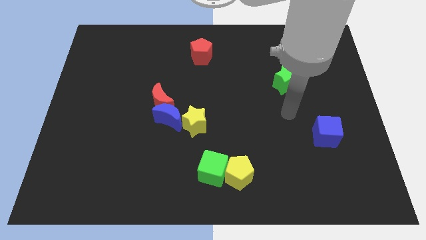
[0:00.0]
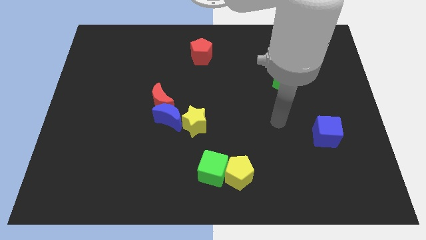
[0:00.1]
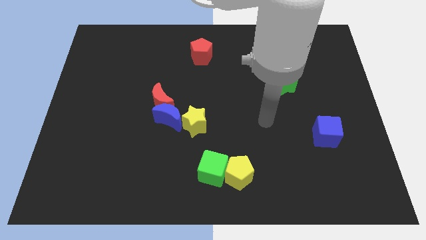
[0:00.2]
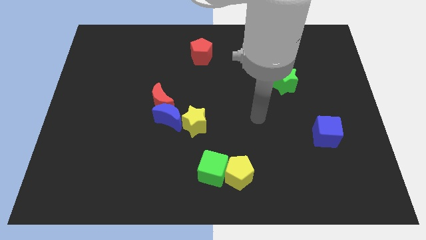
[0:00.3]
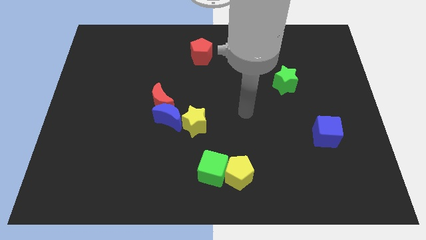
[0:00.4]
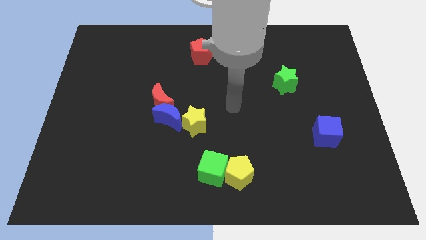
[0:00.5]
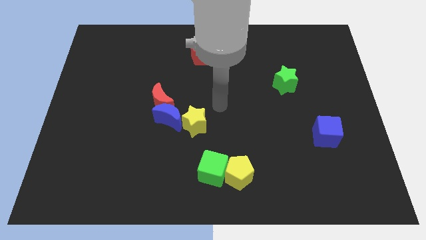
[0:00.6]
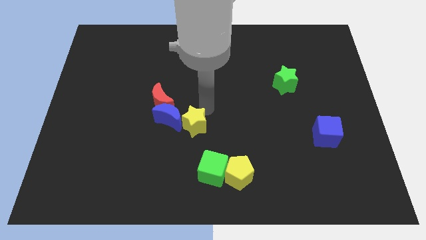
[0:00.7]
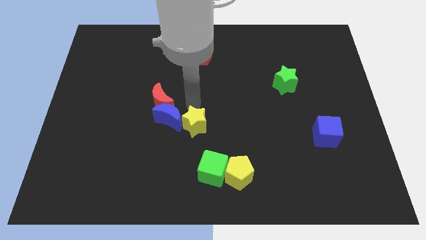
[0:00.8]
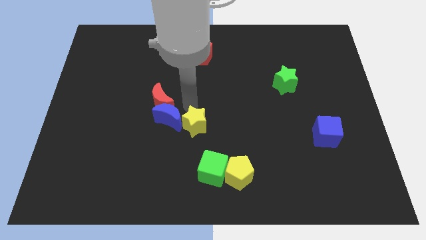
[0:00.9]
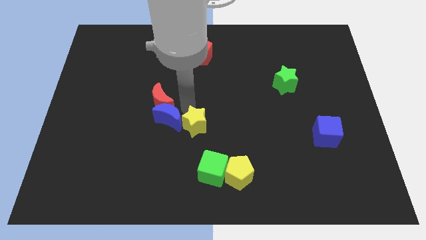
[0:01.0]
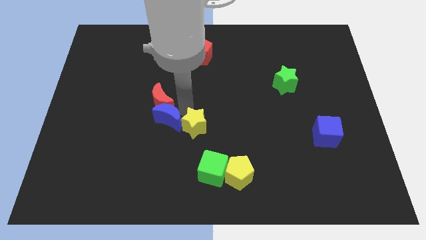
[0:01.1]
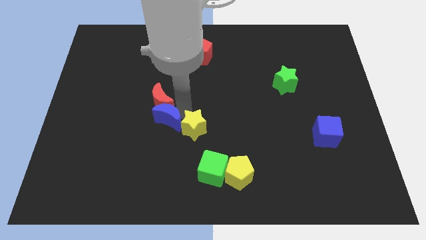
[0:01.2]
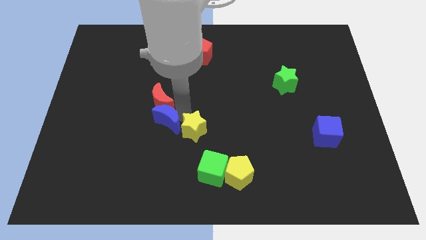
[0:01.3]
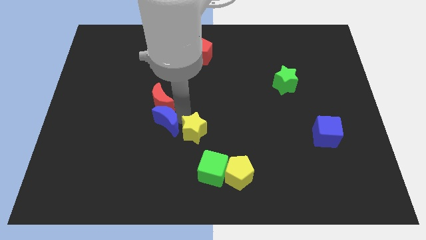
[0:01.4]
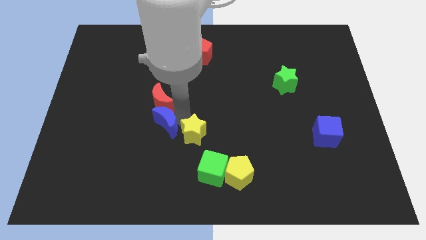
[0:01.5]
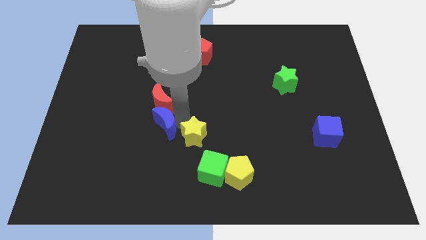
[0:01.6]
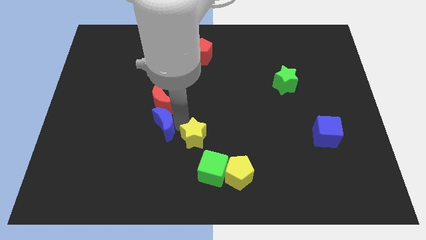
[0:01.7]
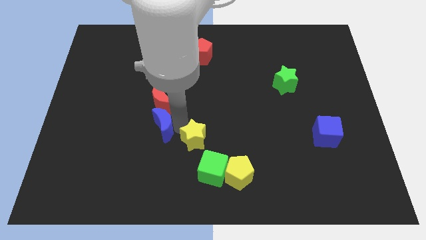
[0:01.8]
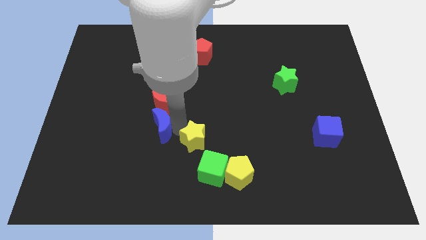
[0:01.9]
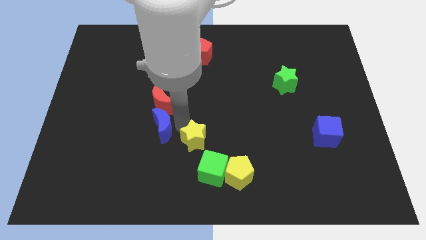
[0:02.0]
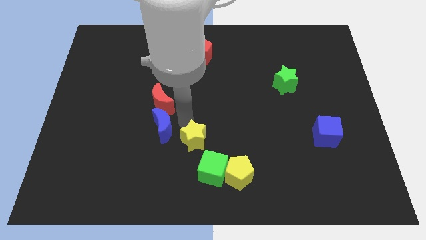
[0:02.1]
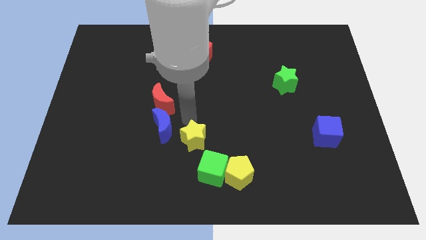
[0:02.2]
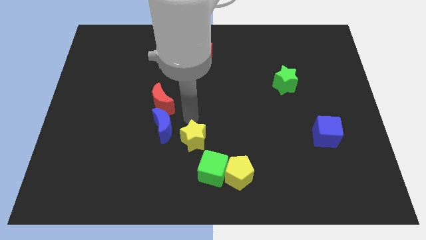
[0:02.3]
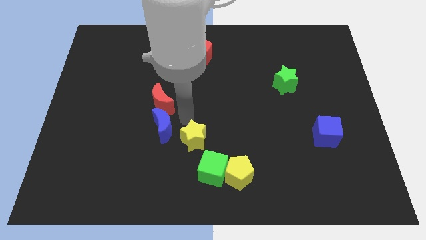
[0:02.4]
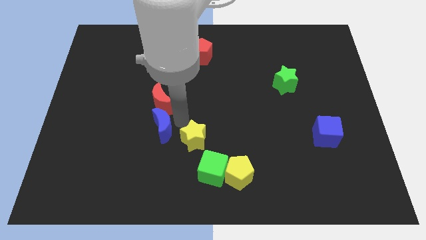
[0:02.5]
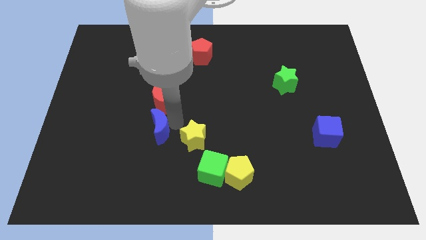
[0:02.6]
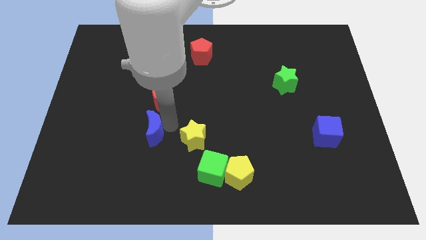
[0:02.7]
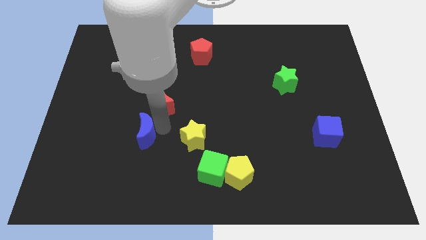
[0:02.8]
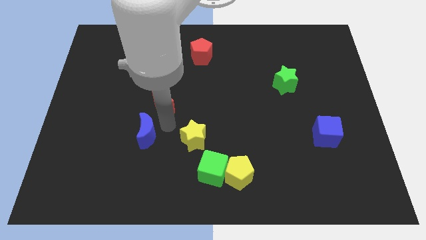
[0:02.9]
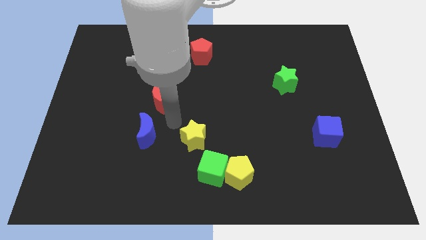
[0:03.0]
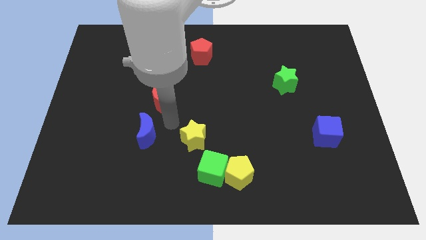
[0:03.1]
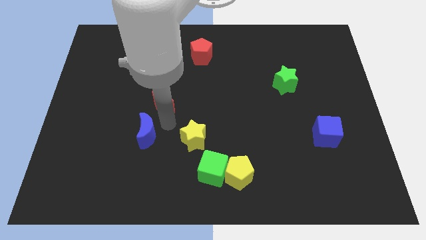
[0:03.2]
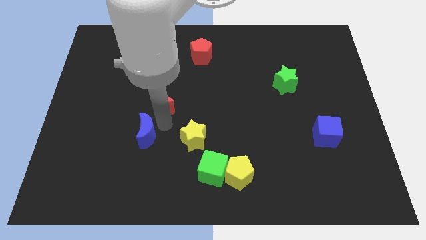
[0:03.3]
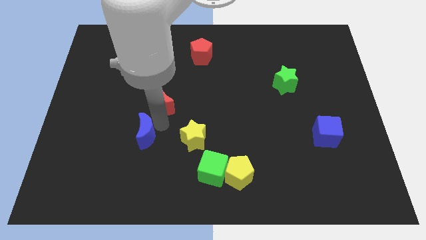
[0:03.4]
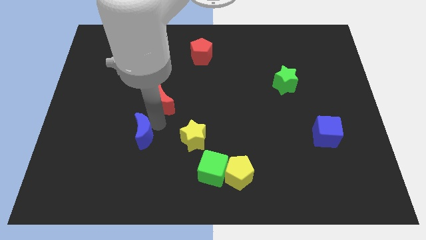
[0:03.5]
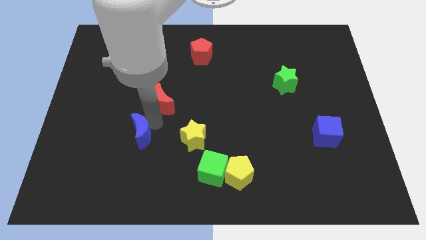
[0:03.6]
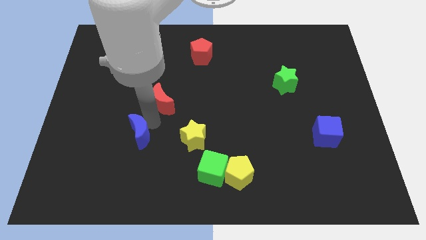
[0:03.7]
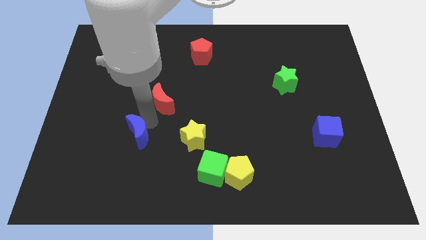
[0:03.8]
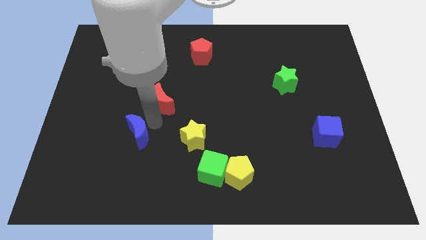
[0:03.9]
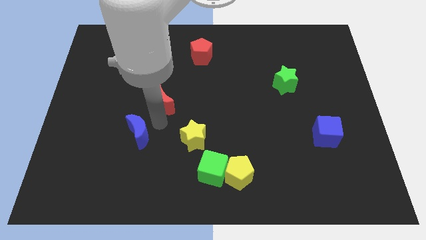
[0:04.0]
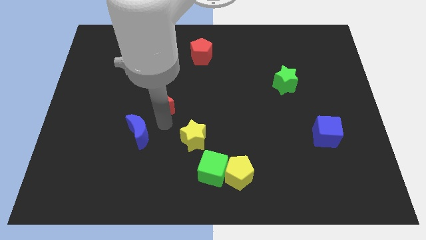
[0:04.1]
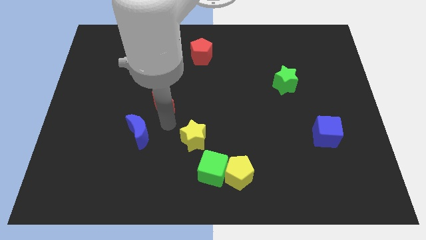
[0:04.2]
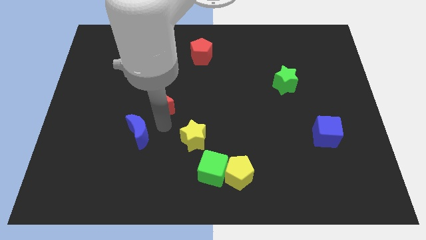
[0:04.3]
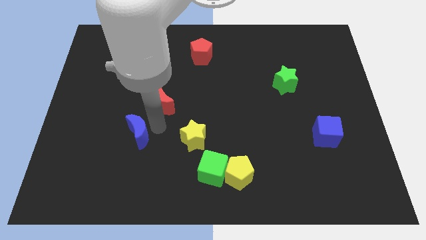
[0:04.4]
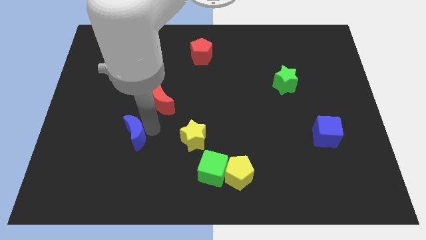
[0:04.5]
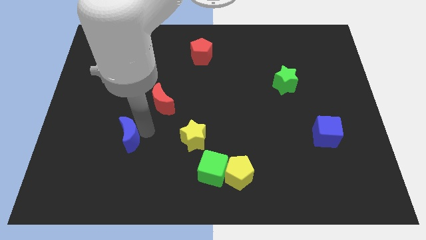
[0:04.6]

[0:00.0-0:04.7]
move the blue moon away from the red moon and yellow star

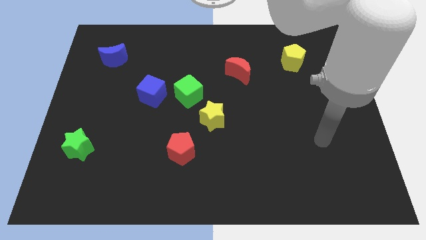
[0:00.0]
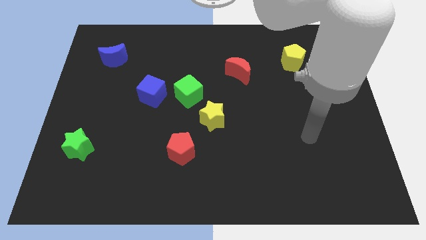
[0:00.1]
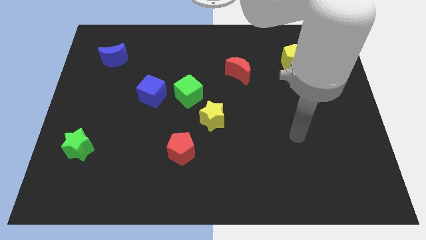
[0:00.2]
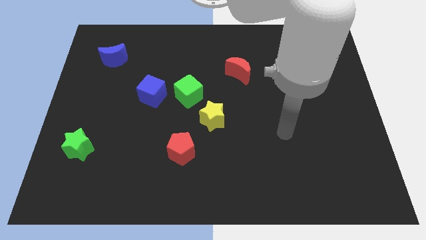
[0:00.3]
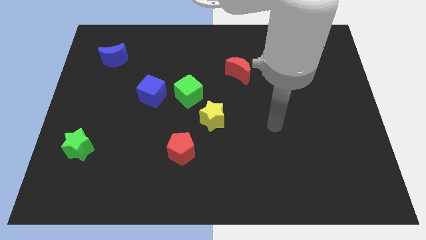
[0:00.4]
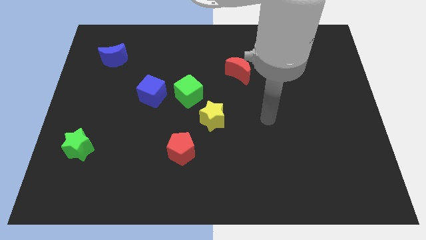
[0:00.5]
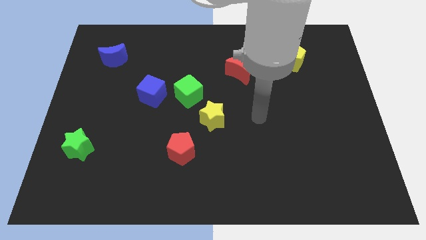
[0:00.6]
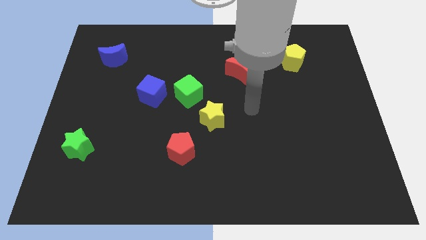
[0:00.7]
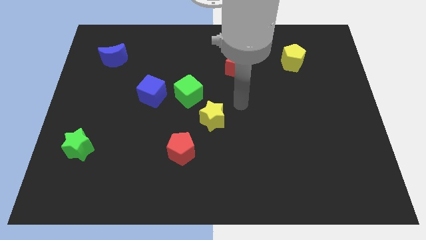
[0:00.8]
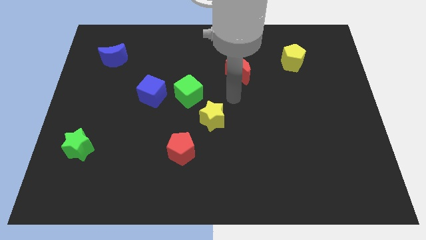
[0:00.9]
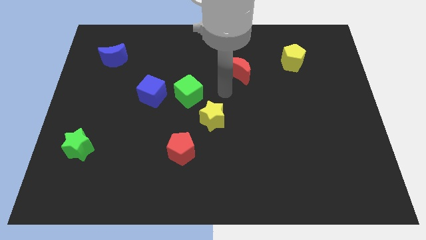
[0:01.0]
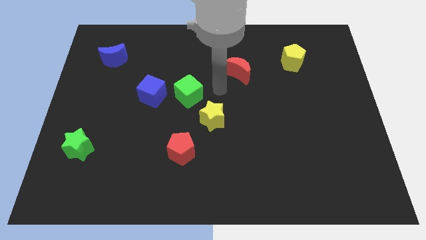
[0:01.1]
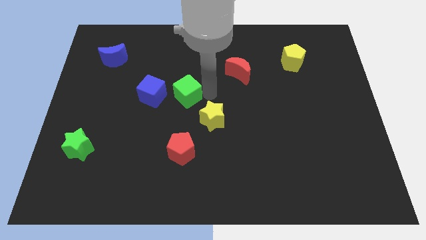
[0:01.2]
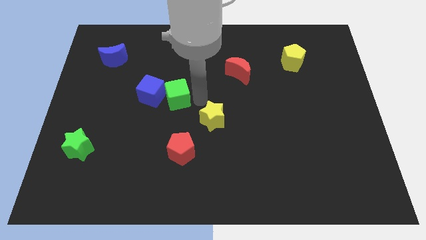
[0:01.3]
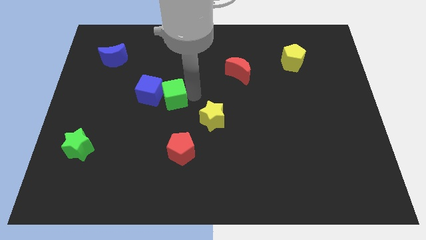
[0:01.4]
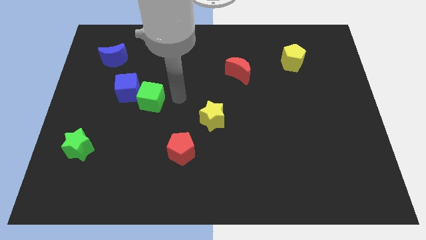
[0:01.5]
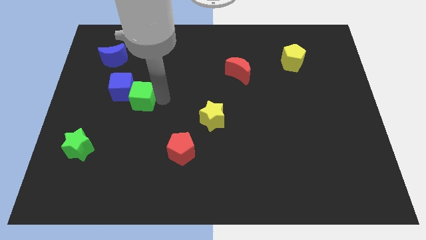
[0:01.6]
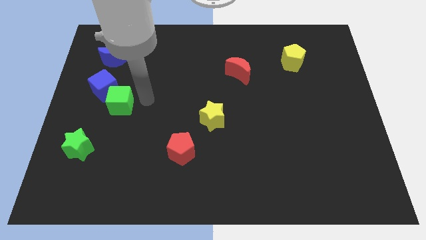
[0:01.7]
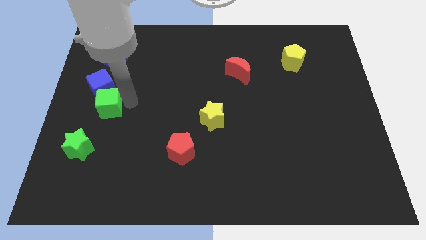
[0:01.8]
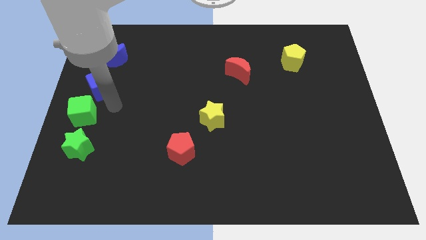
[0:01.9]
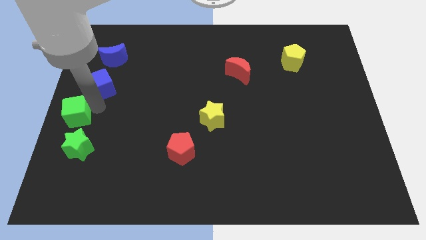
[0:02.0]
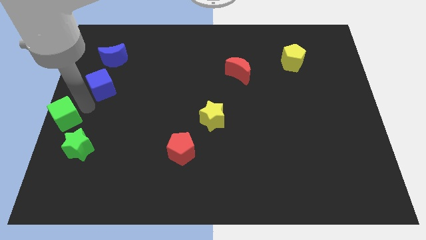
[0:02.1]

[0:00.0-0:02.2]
pull the blue cube apart from the green cube

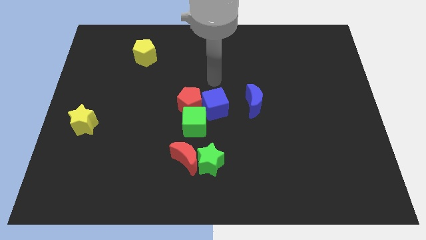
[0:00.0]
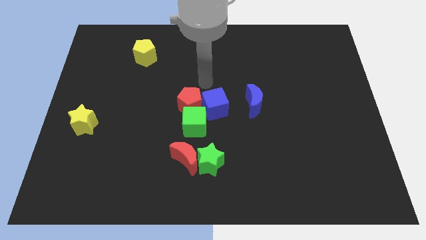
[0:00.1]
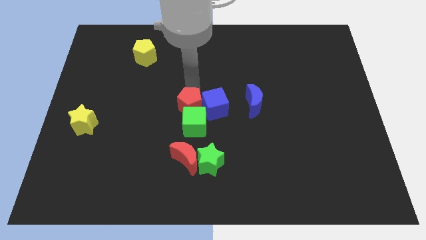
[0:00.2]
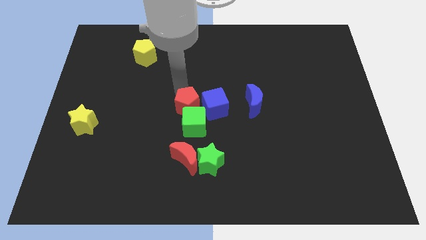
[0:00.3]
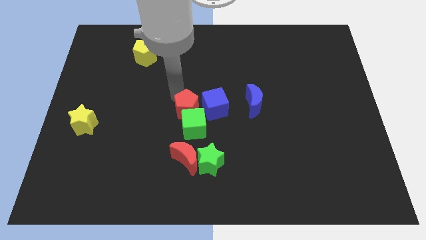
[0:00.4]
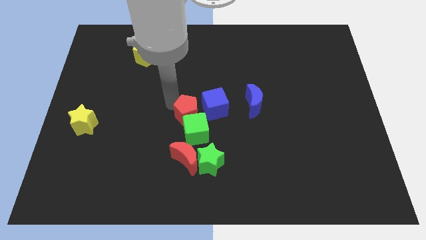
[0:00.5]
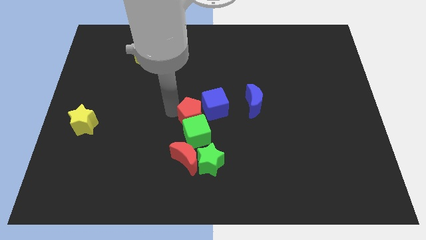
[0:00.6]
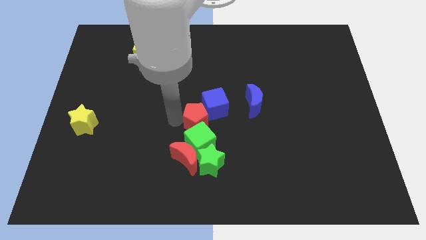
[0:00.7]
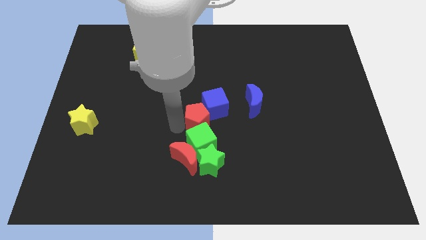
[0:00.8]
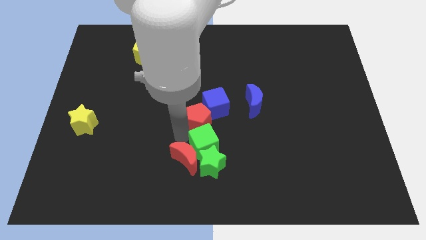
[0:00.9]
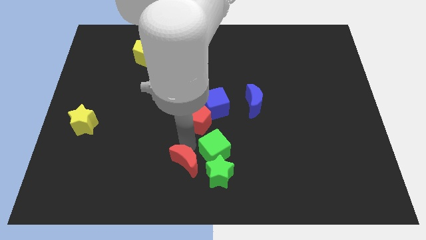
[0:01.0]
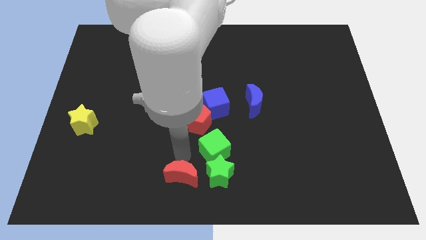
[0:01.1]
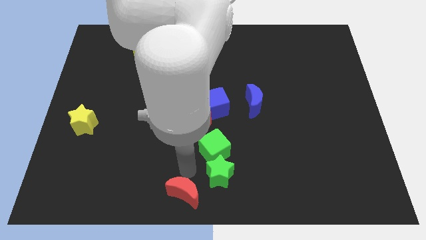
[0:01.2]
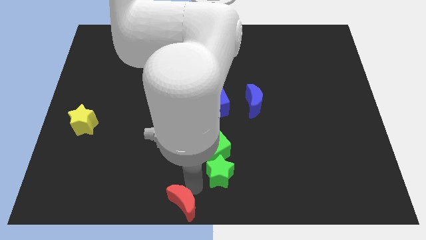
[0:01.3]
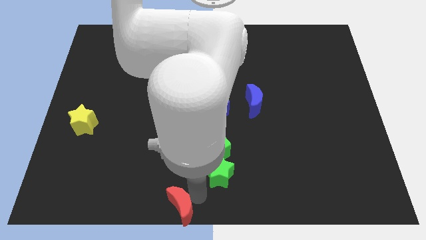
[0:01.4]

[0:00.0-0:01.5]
separate the green star from the red moon

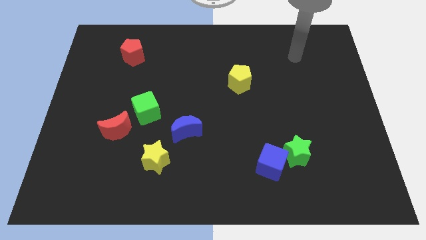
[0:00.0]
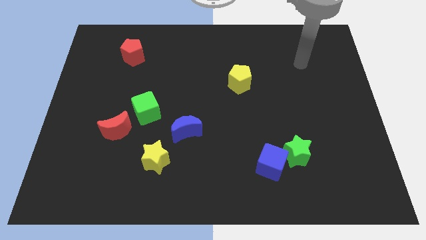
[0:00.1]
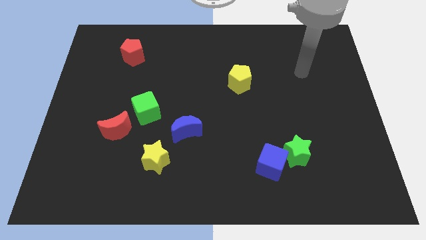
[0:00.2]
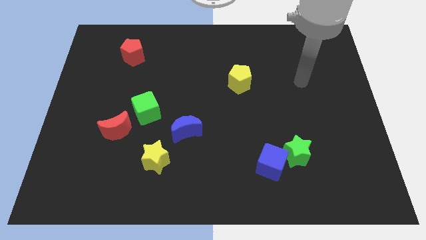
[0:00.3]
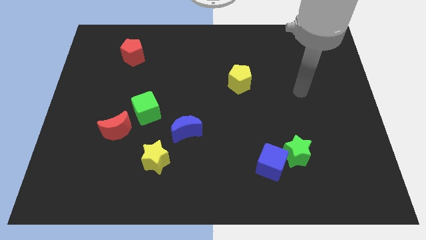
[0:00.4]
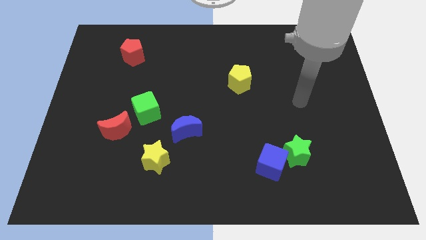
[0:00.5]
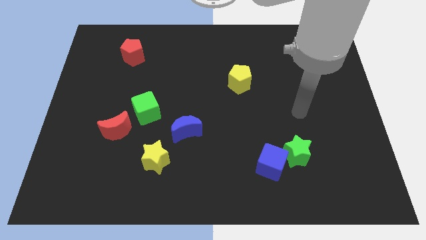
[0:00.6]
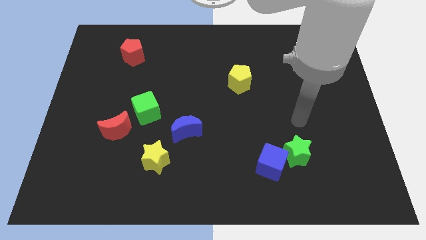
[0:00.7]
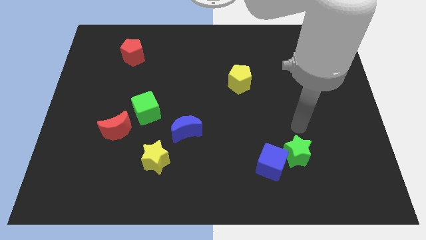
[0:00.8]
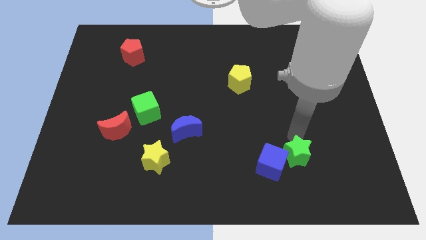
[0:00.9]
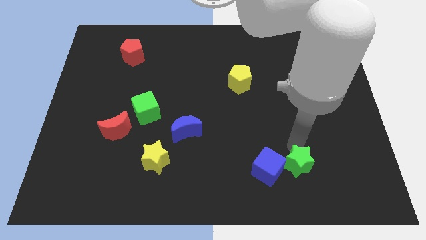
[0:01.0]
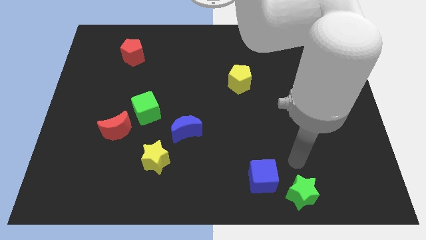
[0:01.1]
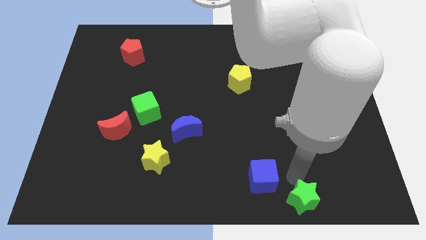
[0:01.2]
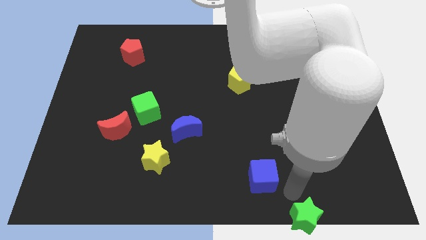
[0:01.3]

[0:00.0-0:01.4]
pull the blue cube apart from the green star
